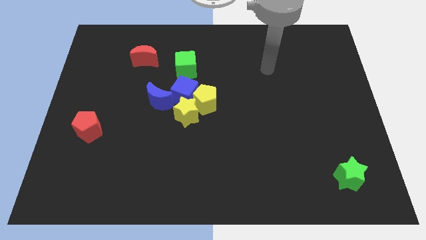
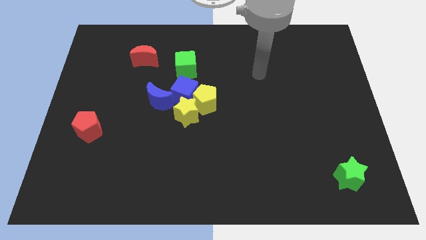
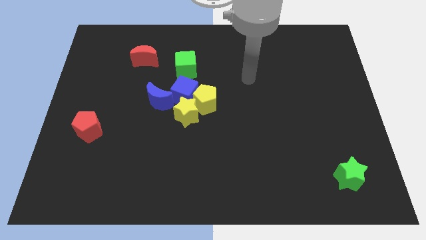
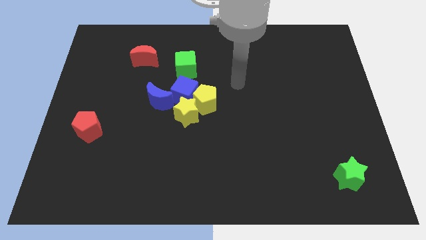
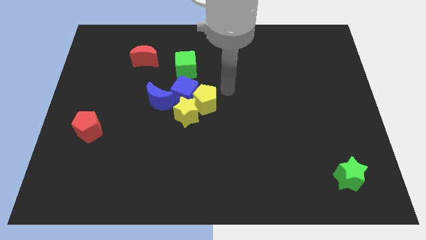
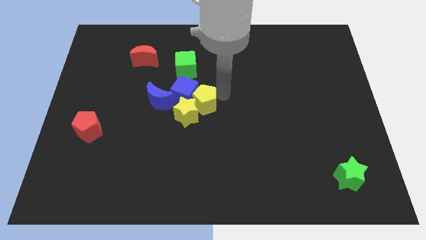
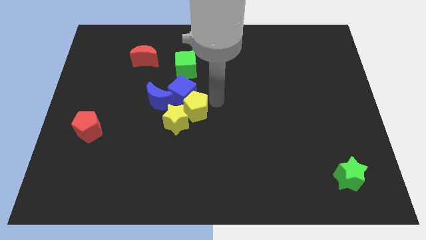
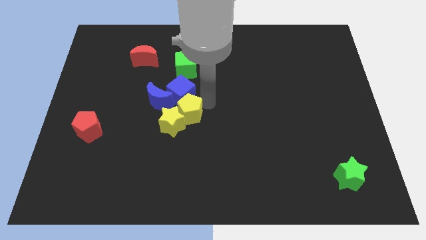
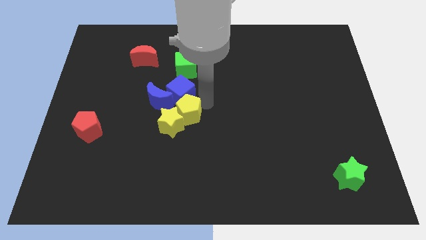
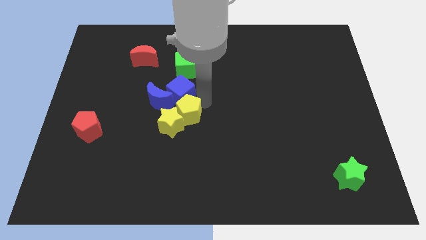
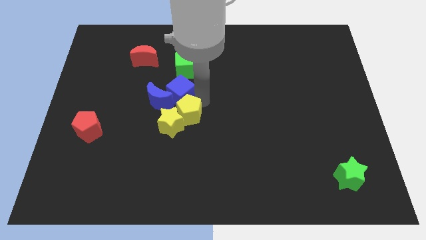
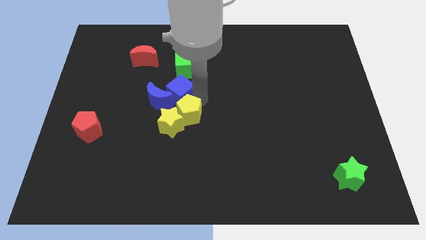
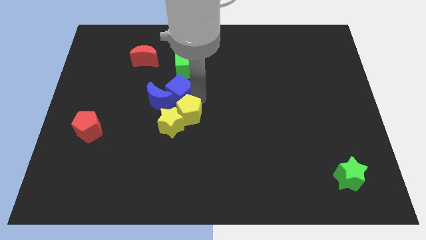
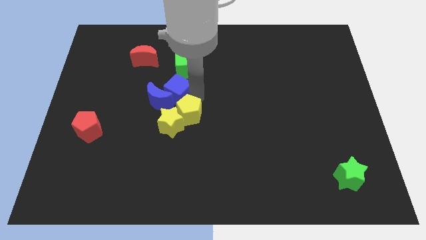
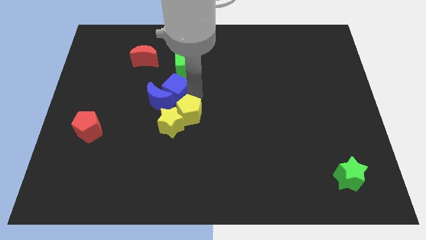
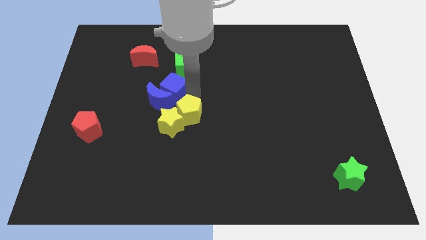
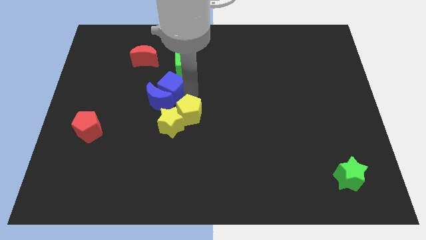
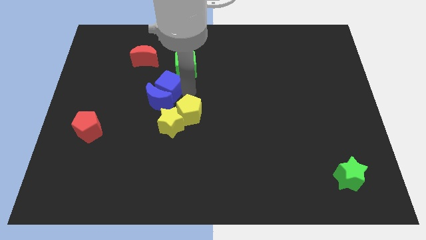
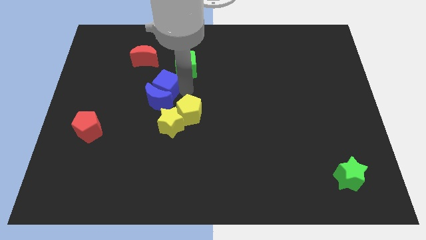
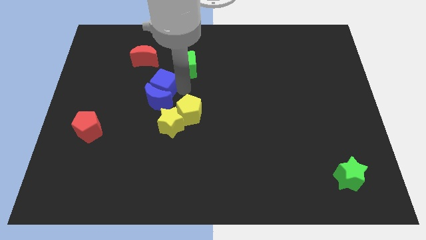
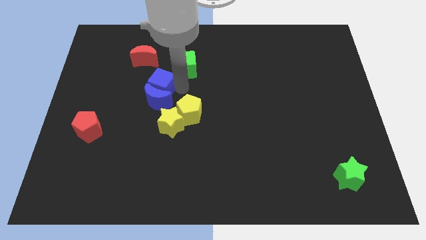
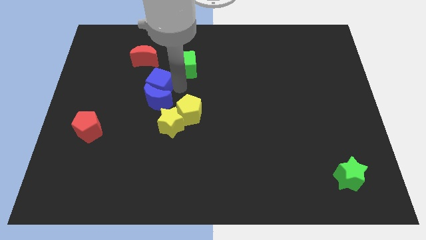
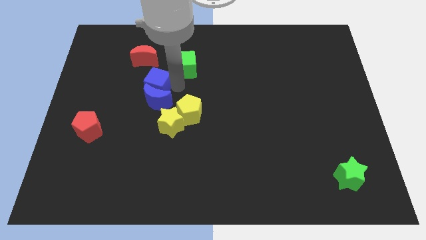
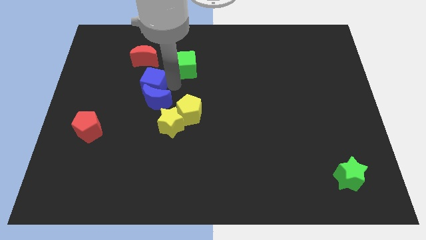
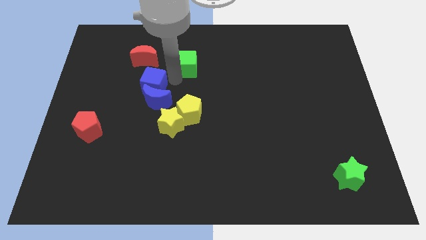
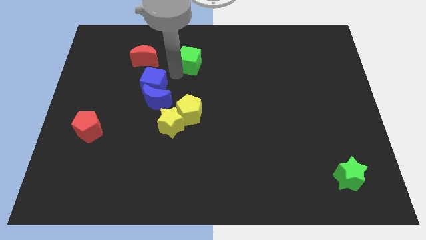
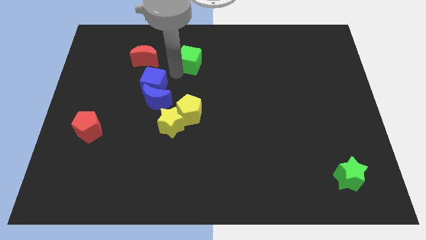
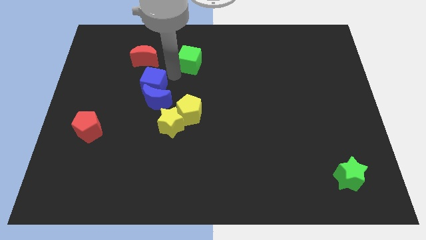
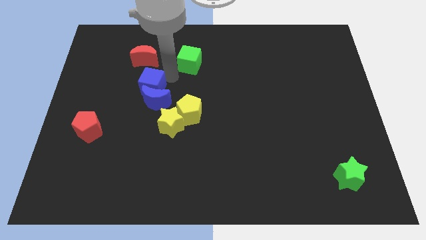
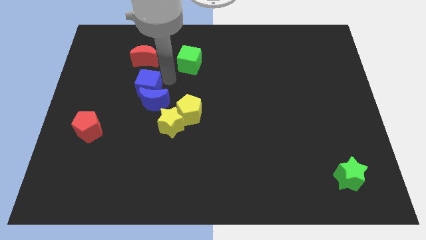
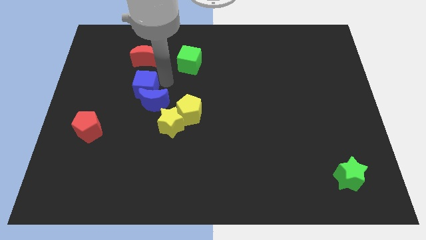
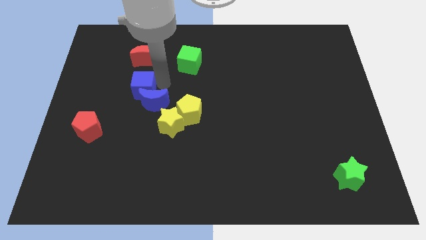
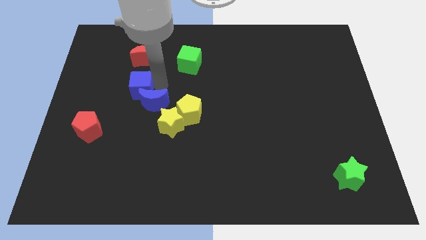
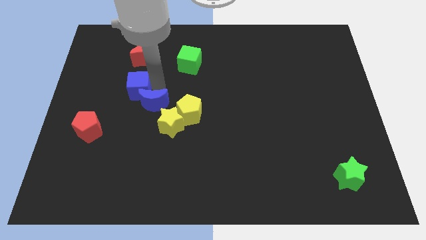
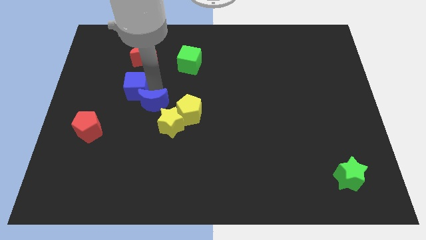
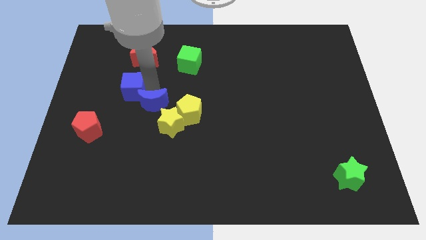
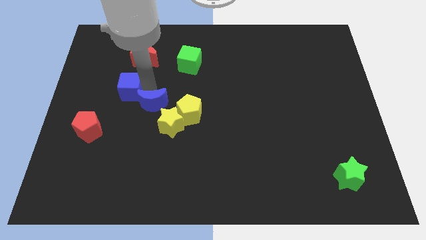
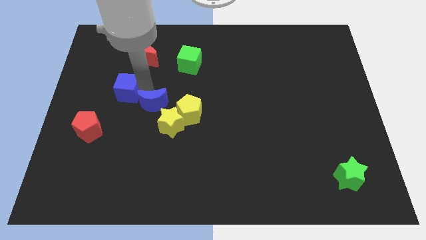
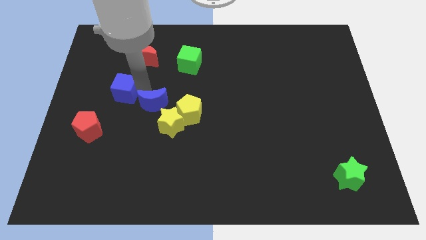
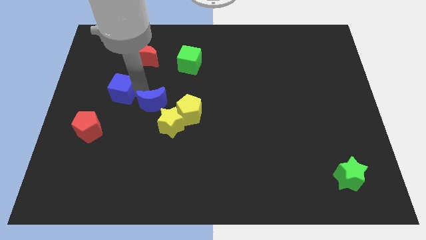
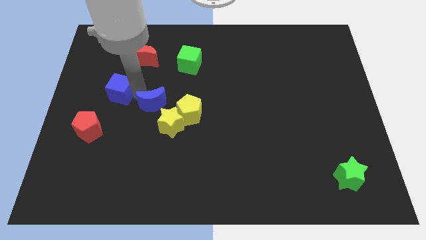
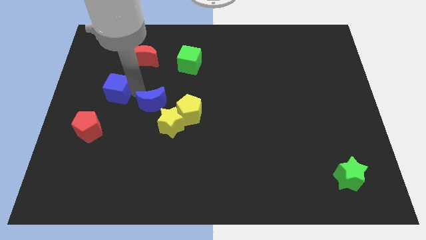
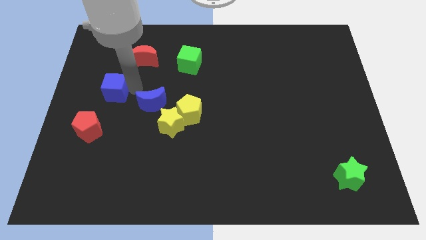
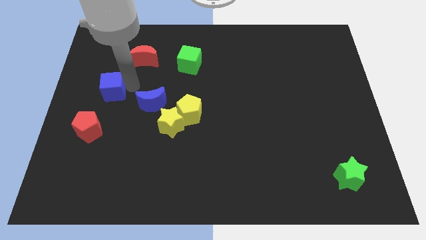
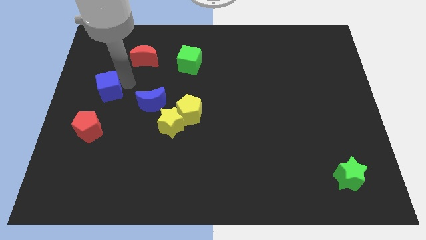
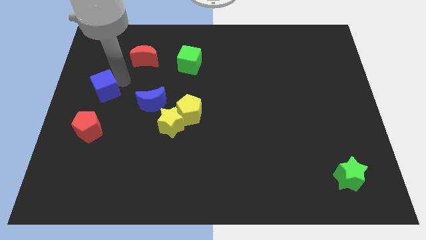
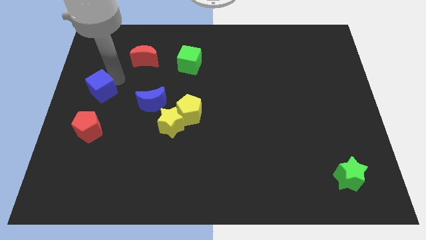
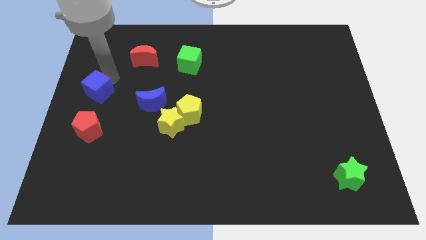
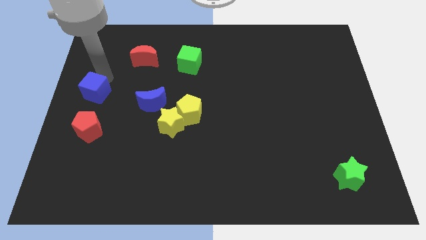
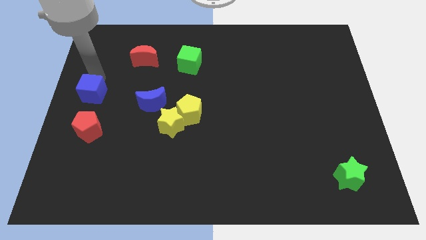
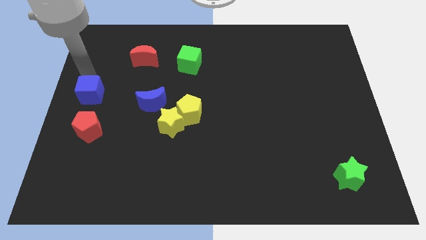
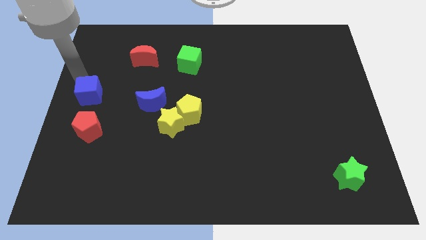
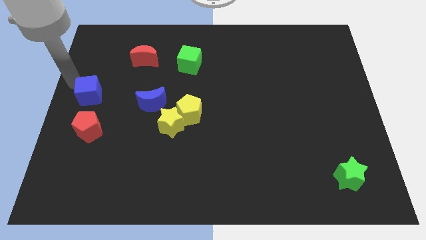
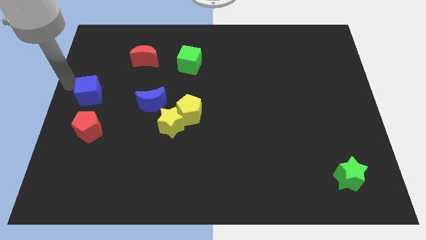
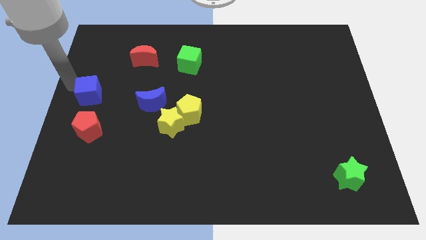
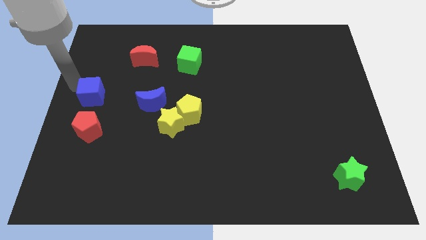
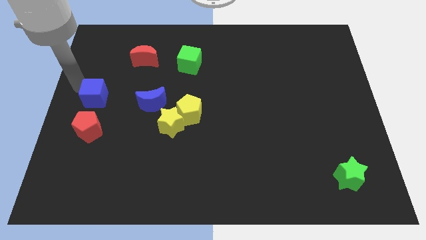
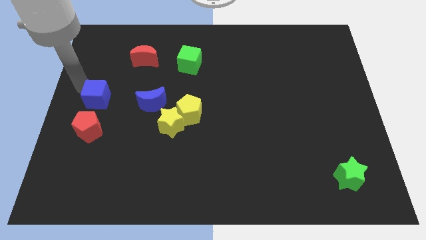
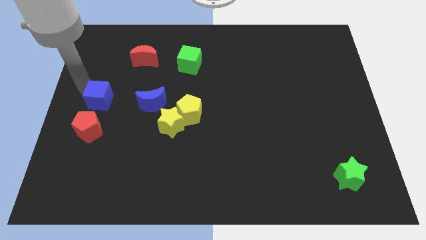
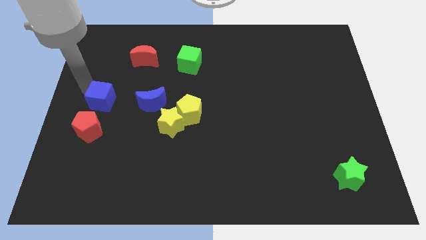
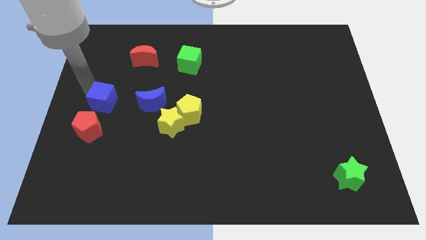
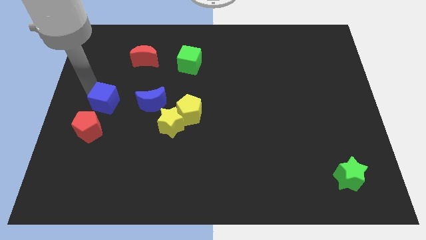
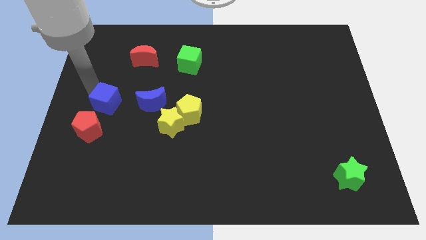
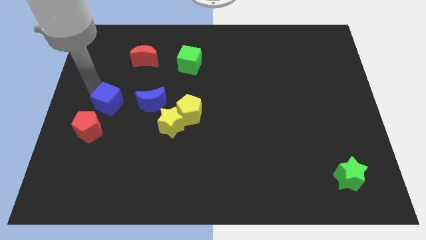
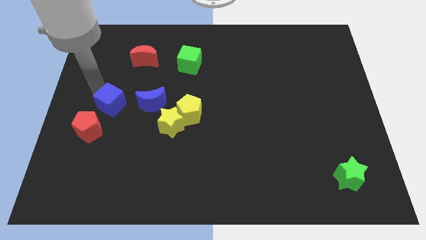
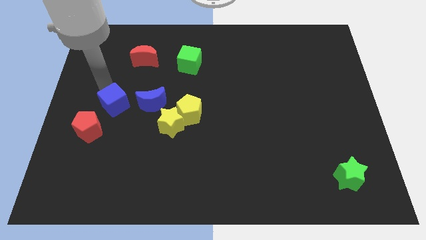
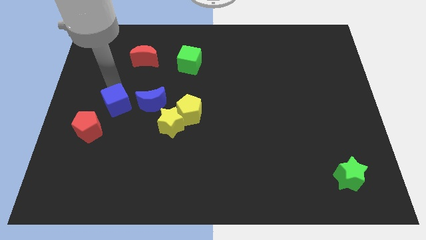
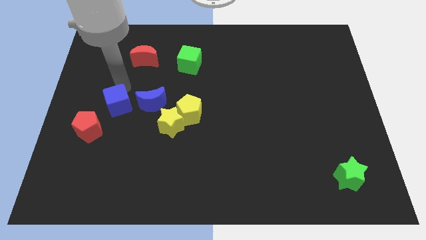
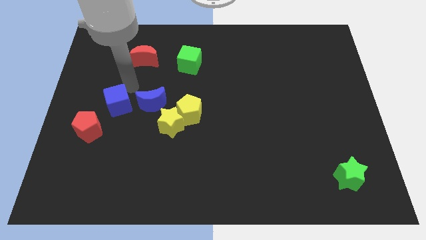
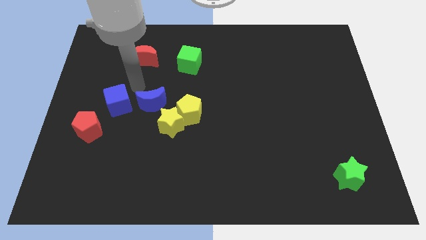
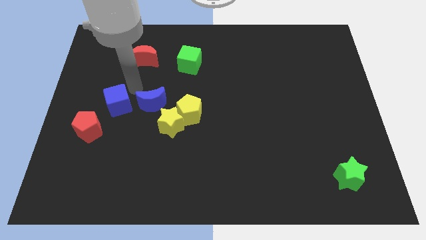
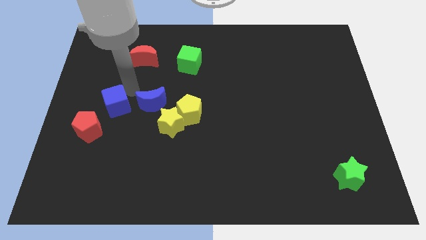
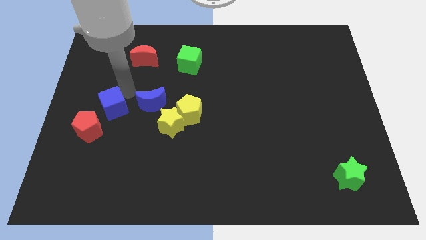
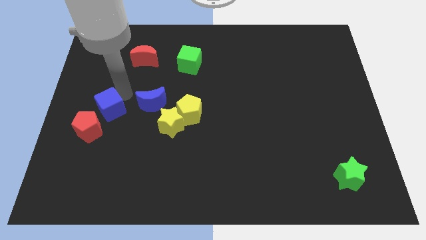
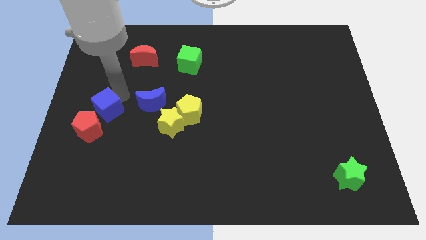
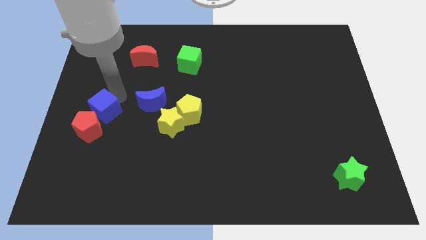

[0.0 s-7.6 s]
move the blue cube towards the red pentagon
